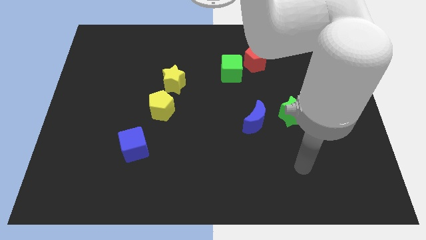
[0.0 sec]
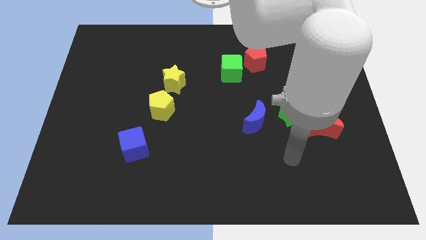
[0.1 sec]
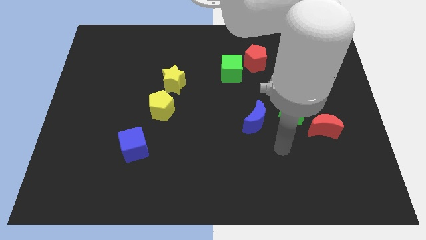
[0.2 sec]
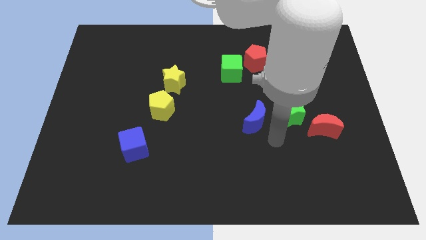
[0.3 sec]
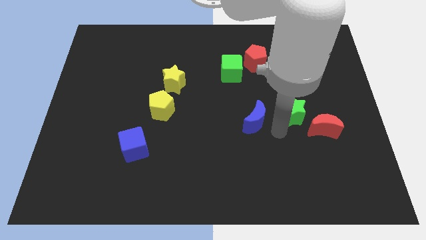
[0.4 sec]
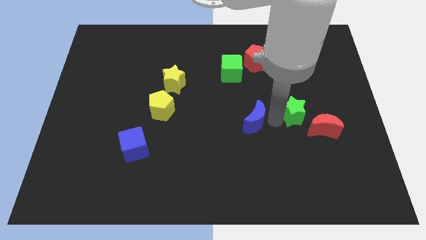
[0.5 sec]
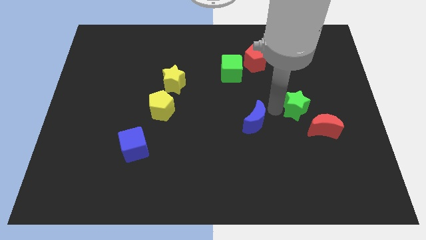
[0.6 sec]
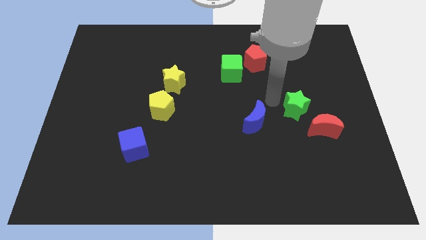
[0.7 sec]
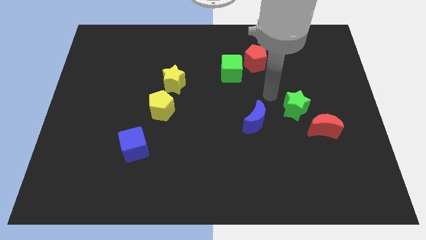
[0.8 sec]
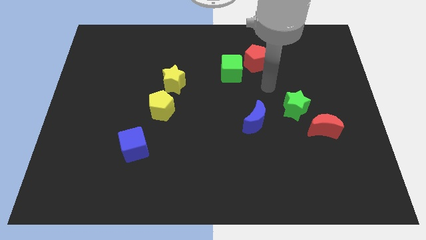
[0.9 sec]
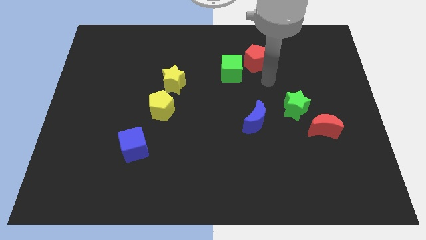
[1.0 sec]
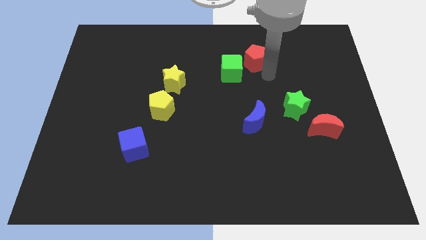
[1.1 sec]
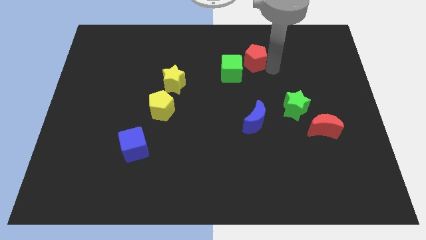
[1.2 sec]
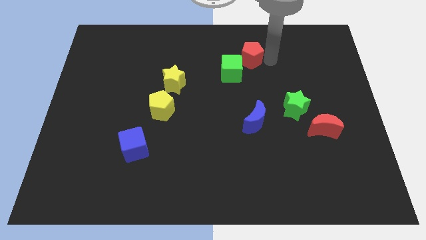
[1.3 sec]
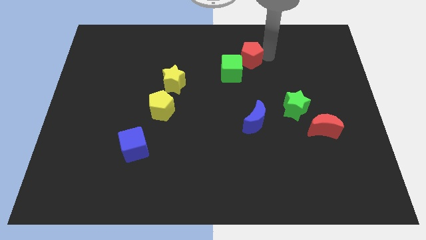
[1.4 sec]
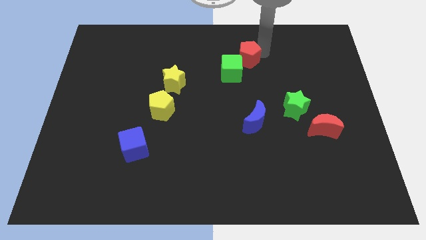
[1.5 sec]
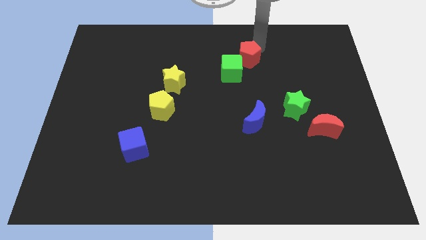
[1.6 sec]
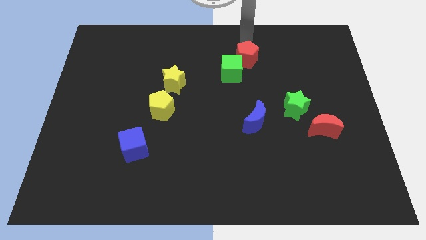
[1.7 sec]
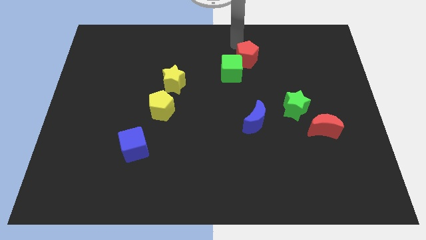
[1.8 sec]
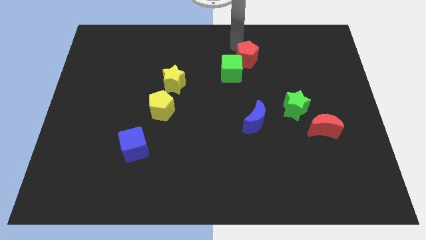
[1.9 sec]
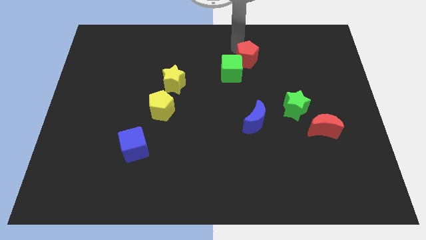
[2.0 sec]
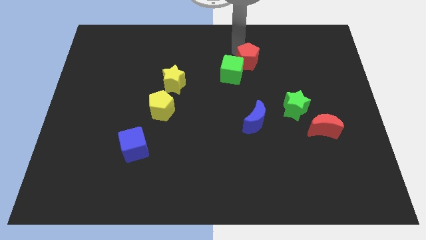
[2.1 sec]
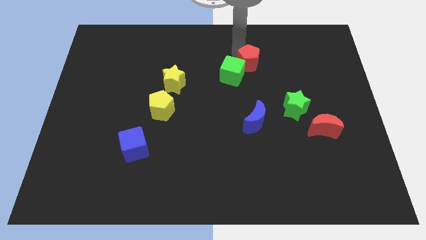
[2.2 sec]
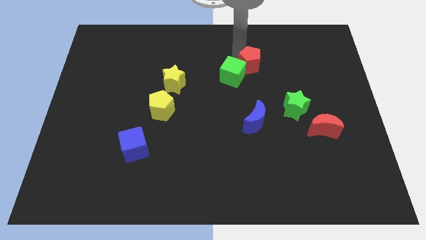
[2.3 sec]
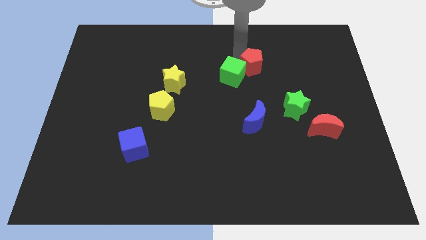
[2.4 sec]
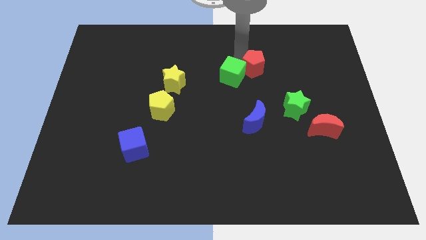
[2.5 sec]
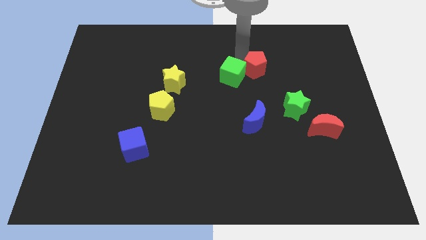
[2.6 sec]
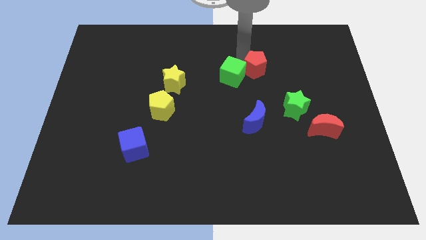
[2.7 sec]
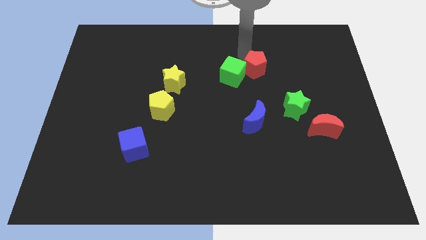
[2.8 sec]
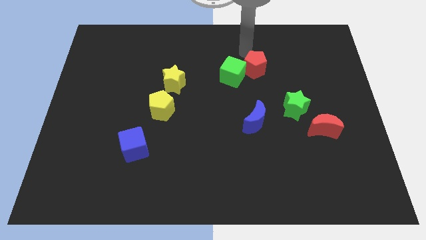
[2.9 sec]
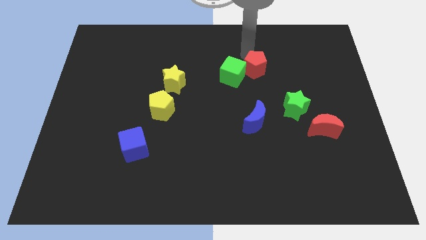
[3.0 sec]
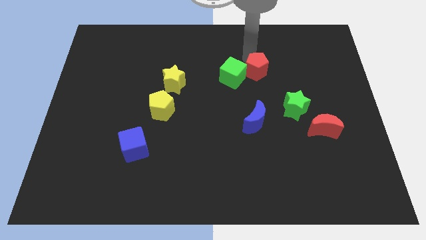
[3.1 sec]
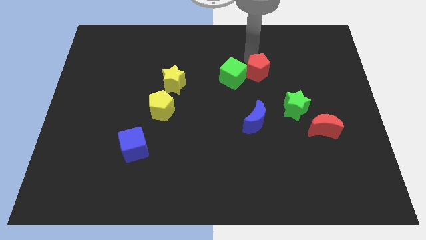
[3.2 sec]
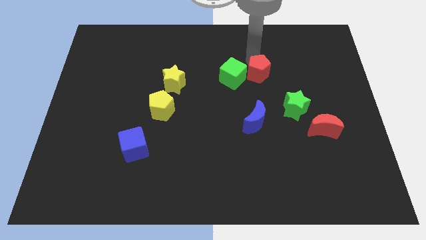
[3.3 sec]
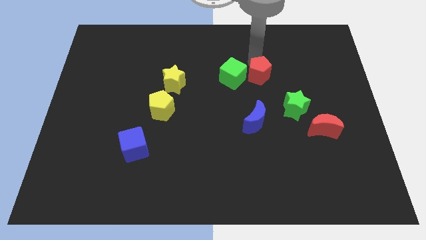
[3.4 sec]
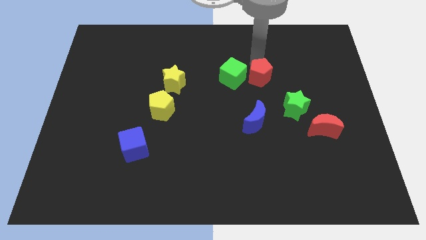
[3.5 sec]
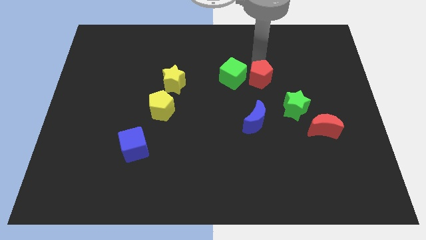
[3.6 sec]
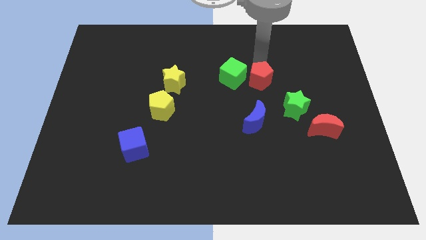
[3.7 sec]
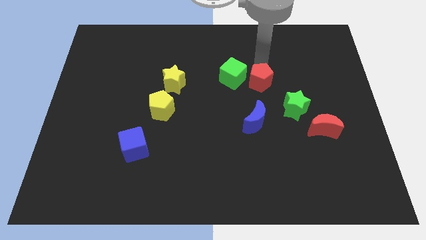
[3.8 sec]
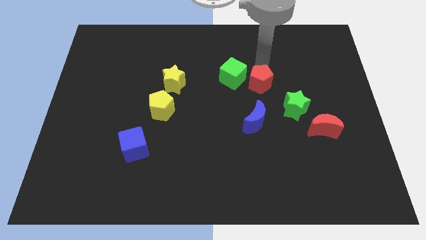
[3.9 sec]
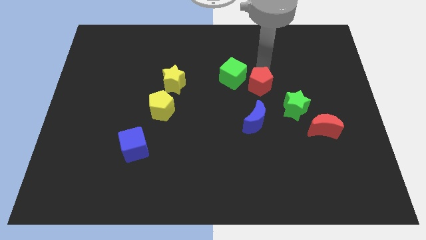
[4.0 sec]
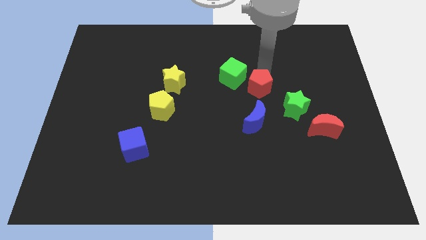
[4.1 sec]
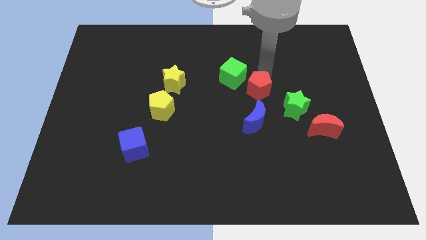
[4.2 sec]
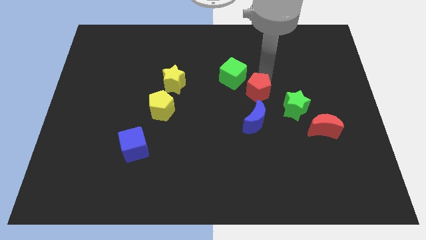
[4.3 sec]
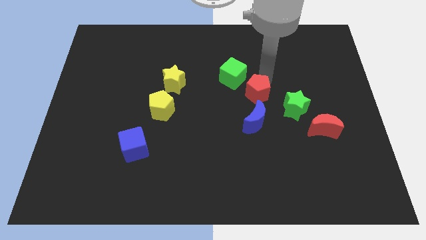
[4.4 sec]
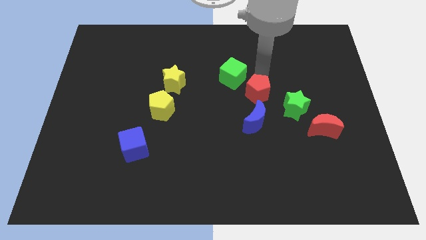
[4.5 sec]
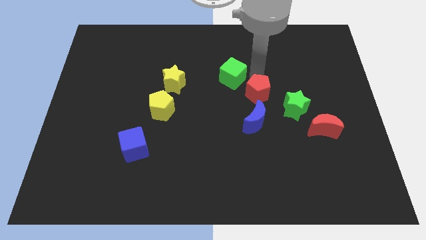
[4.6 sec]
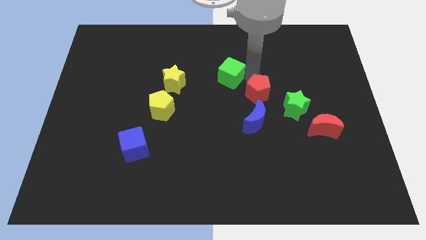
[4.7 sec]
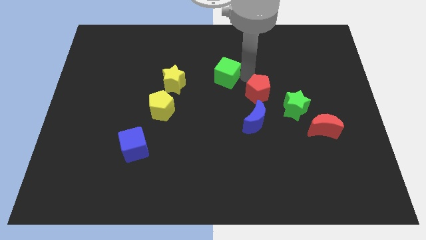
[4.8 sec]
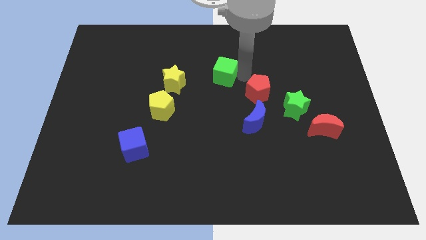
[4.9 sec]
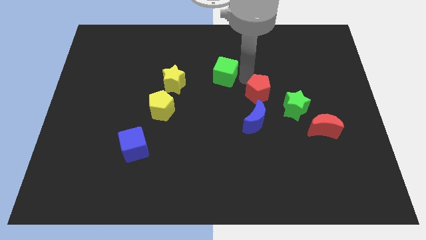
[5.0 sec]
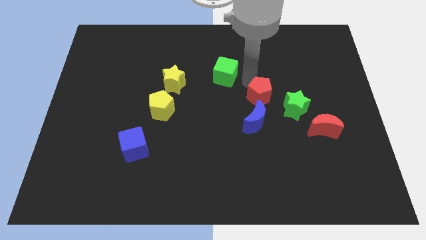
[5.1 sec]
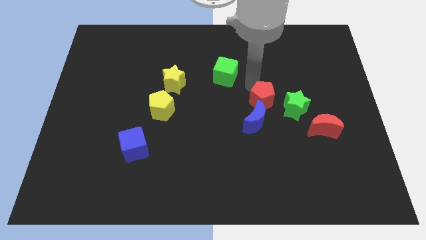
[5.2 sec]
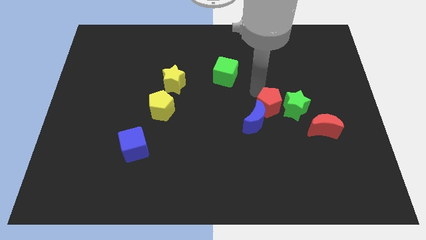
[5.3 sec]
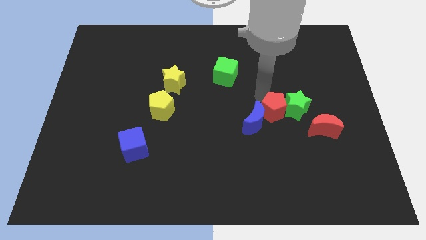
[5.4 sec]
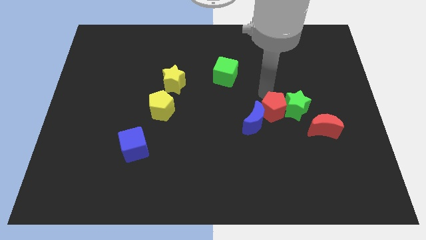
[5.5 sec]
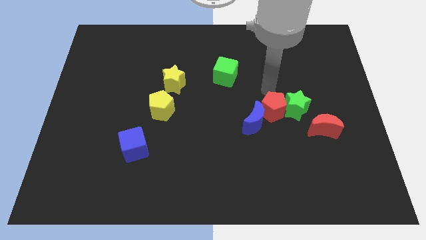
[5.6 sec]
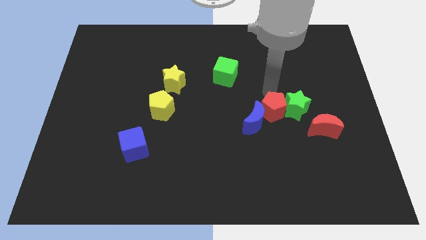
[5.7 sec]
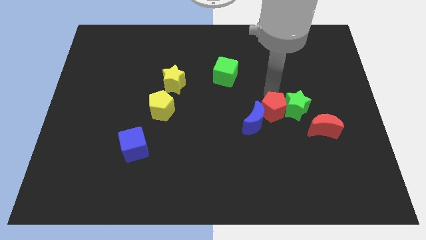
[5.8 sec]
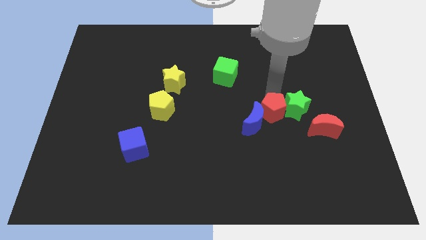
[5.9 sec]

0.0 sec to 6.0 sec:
move the red pentagon just left of the red moon

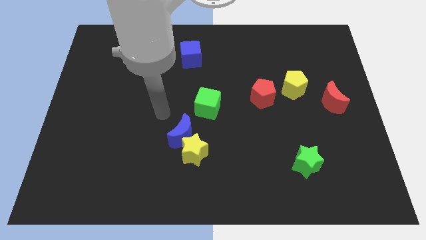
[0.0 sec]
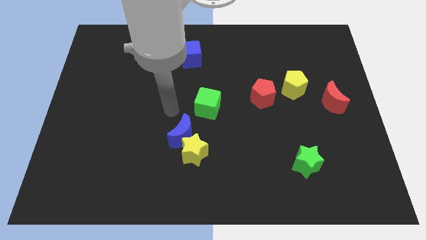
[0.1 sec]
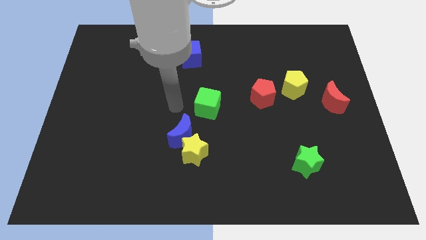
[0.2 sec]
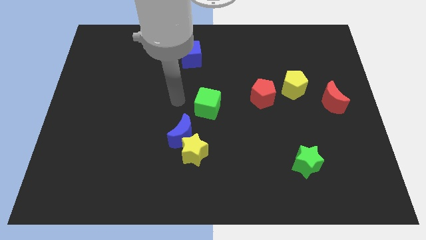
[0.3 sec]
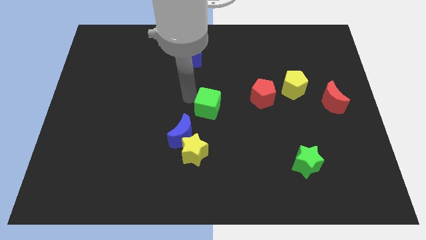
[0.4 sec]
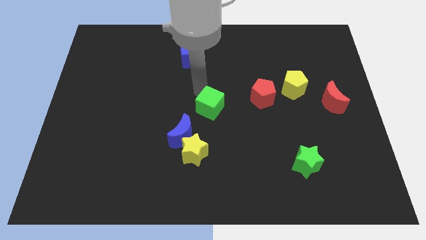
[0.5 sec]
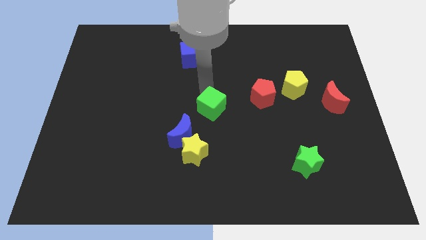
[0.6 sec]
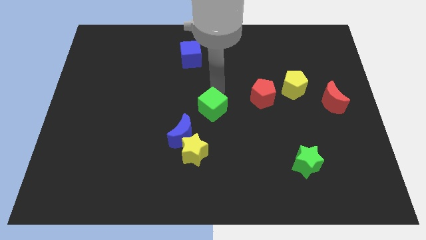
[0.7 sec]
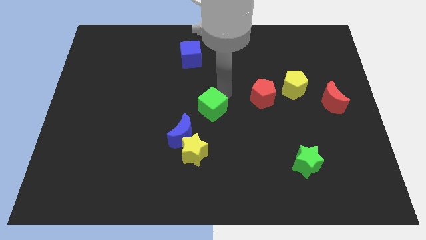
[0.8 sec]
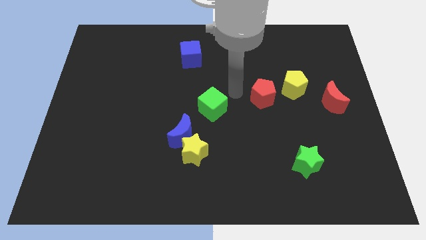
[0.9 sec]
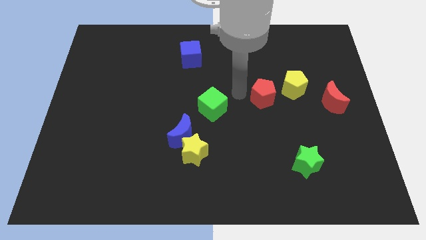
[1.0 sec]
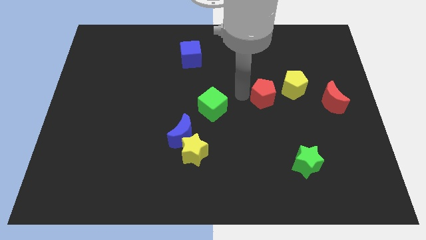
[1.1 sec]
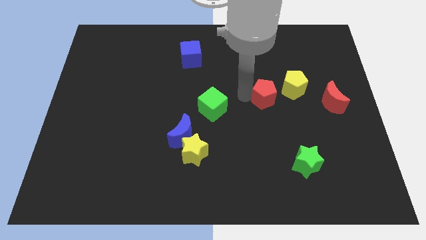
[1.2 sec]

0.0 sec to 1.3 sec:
push the red pentagon to the left of the red moon

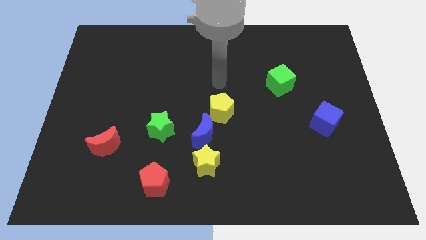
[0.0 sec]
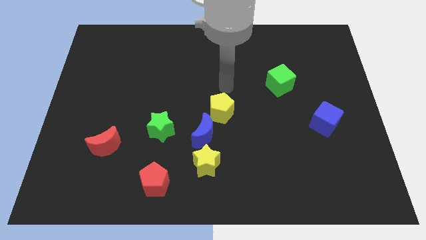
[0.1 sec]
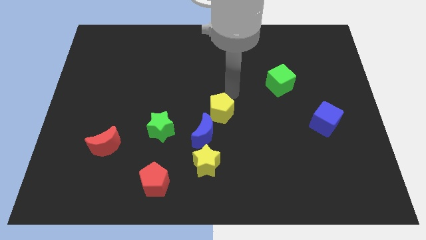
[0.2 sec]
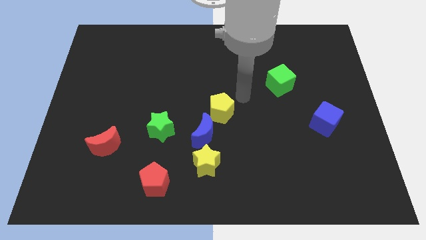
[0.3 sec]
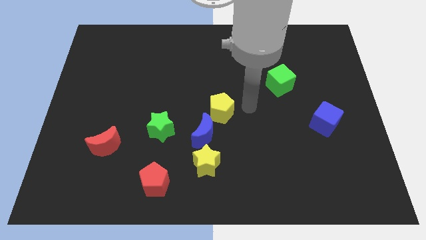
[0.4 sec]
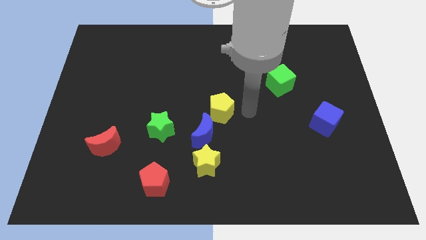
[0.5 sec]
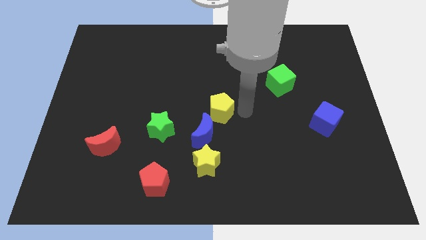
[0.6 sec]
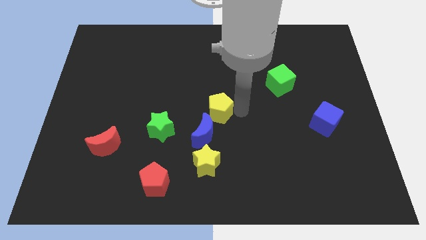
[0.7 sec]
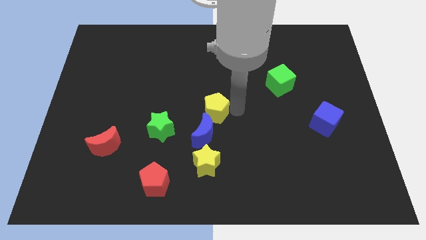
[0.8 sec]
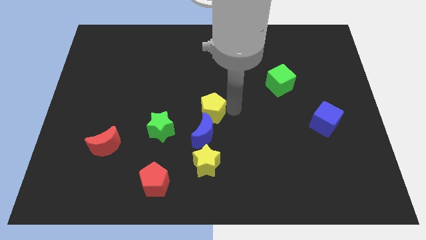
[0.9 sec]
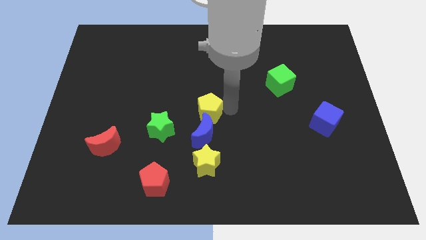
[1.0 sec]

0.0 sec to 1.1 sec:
push the yellow pentagon to the top right side of the green star
